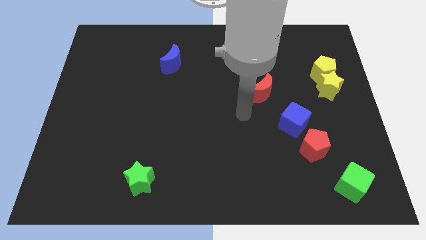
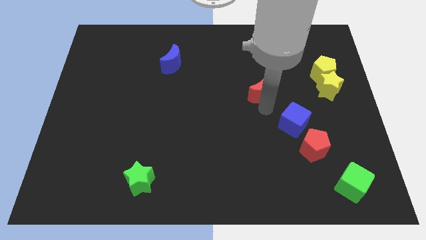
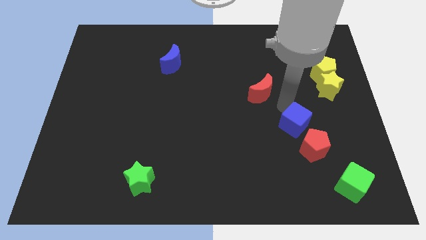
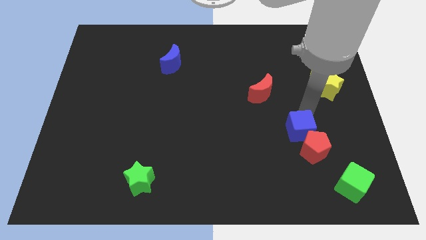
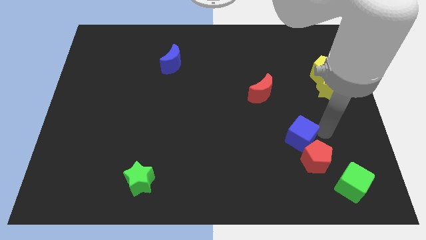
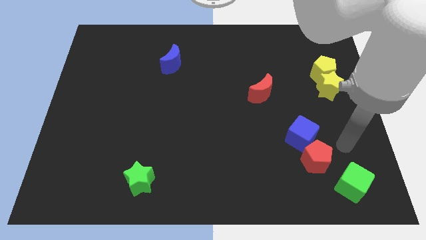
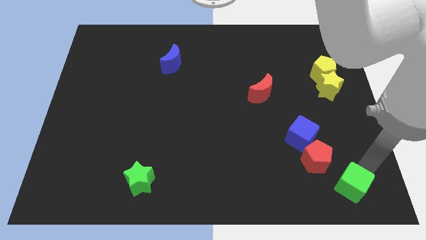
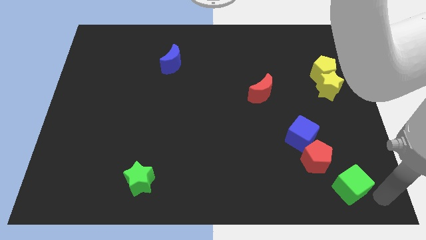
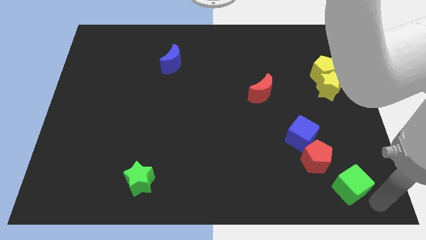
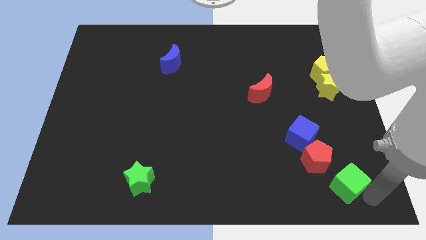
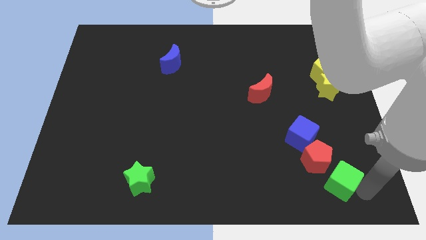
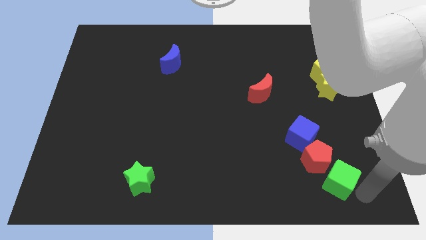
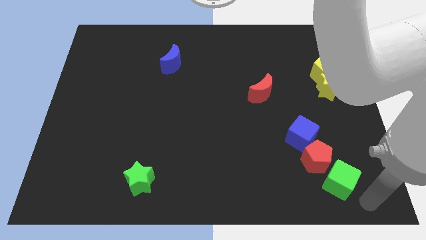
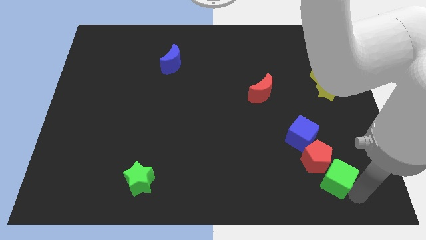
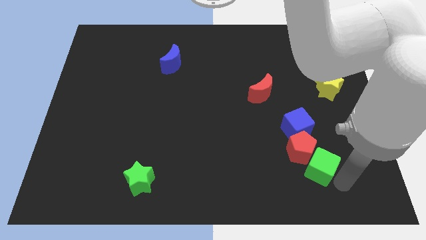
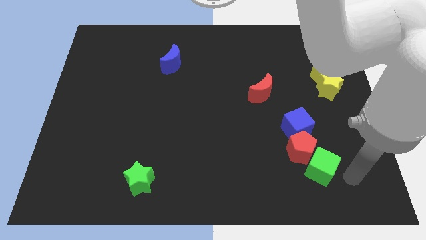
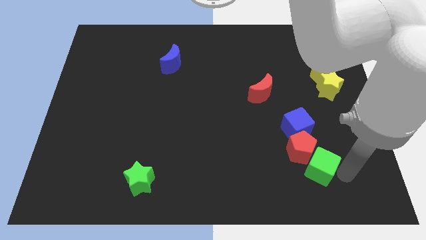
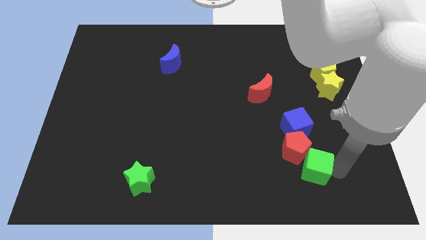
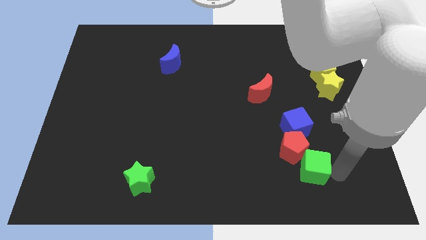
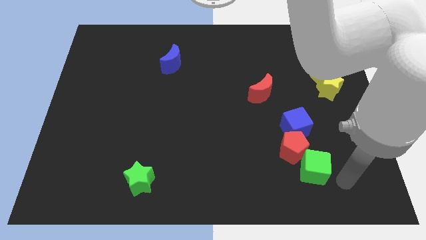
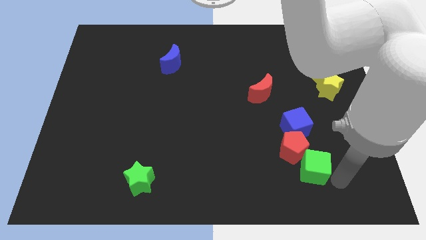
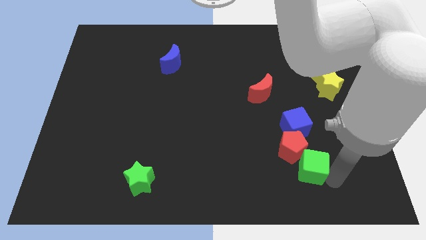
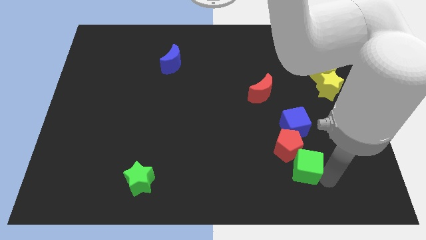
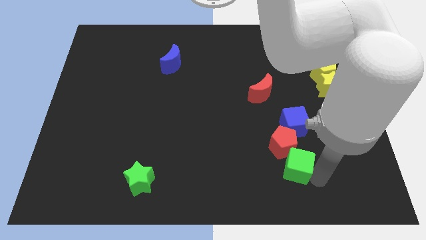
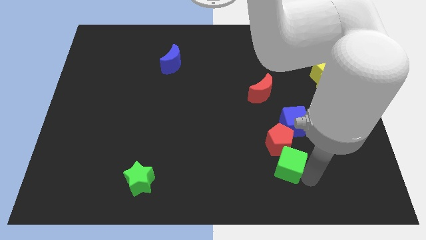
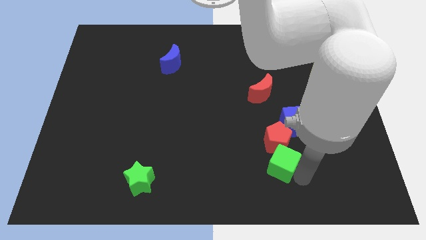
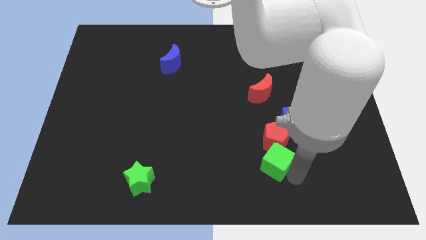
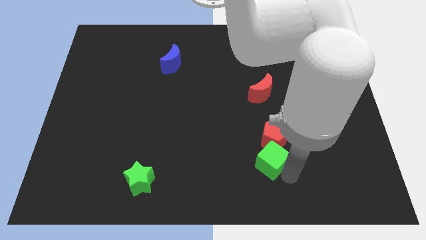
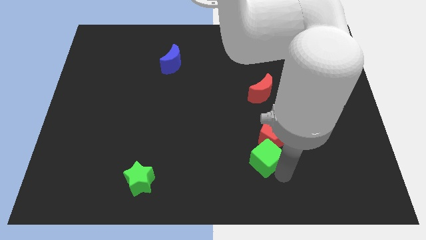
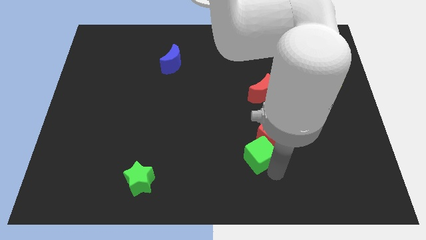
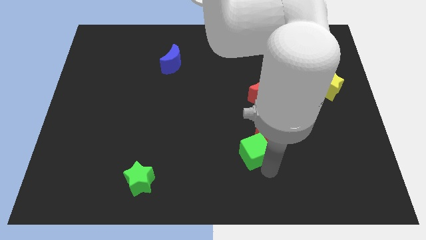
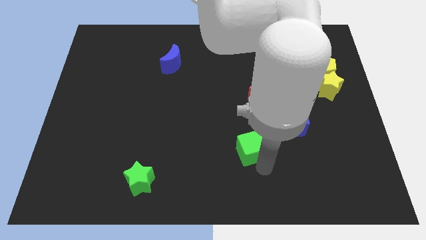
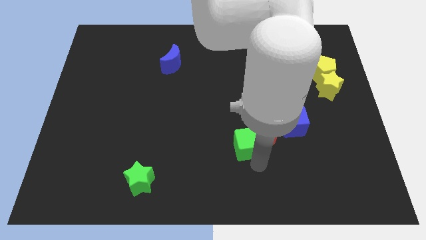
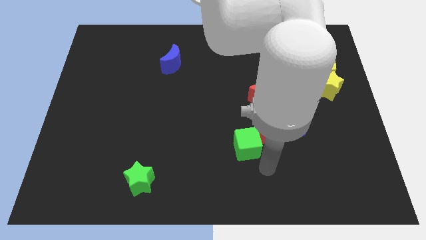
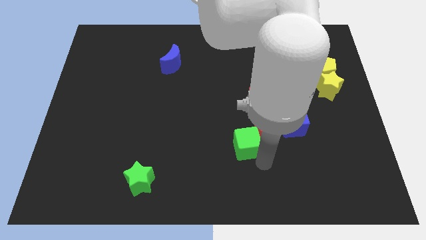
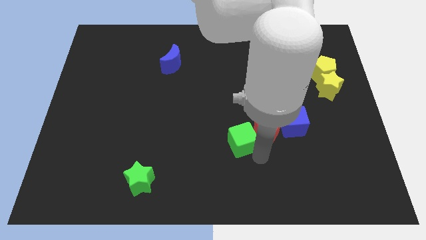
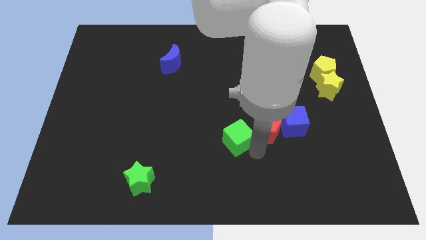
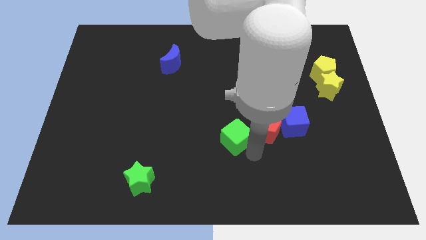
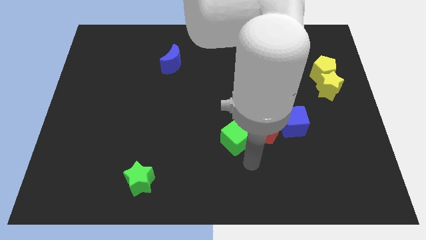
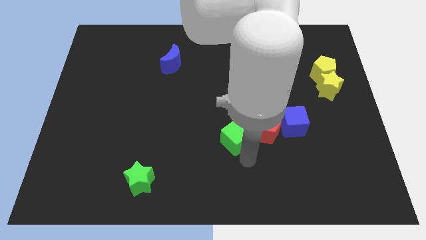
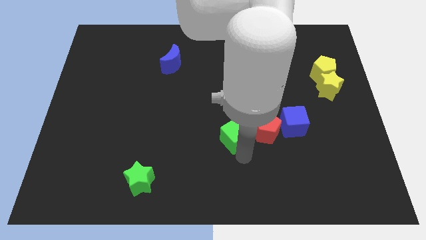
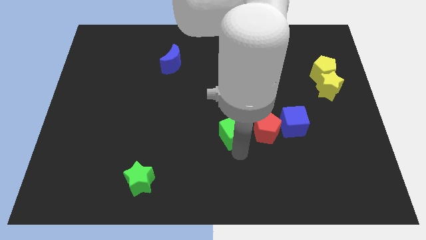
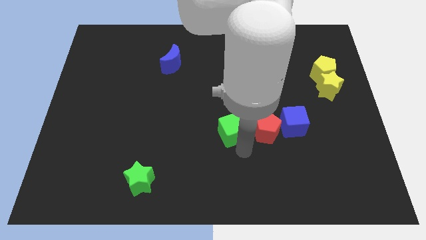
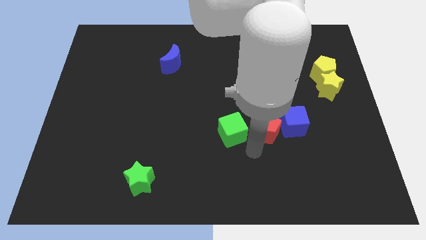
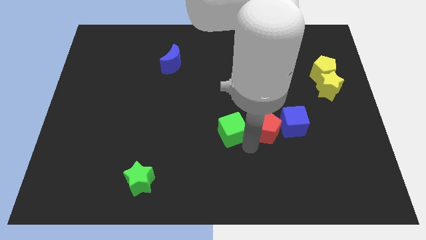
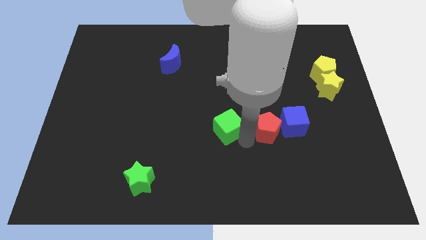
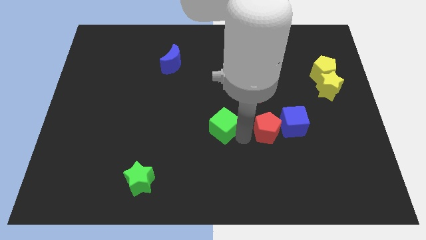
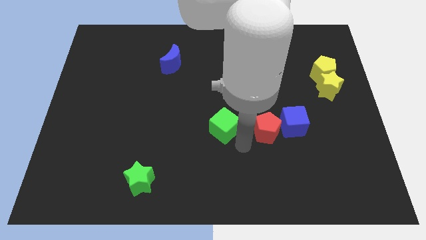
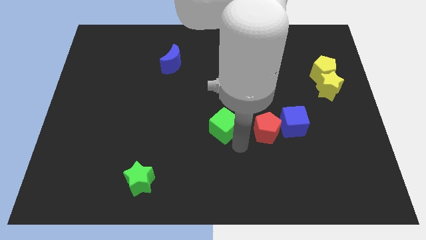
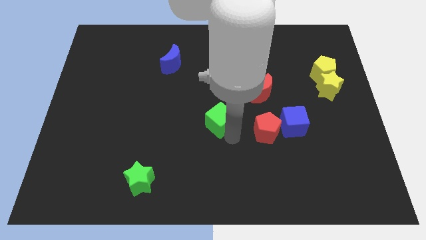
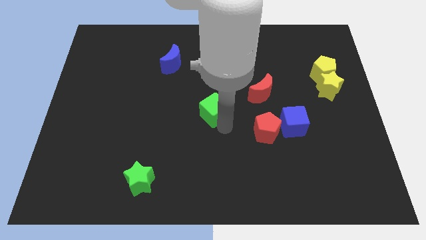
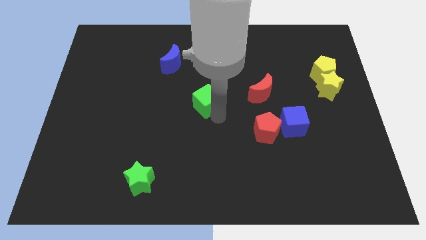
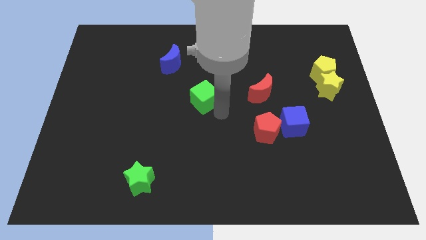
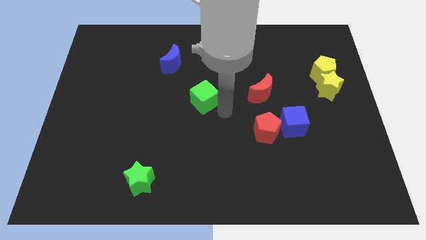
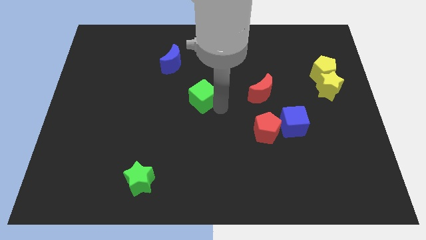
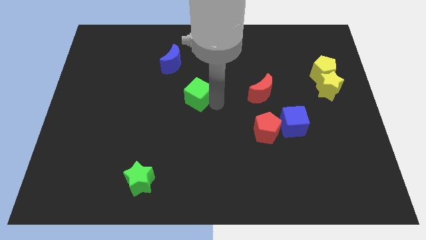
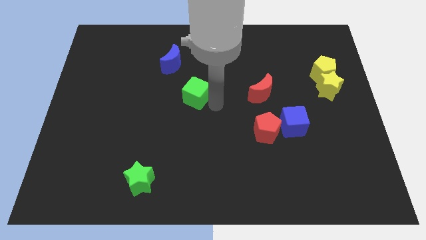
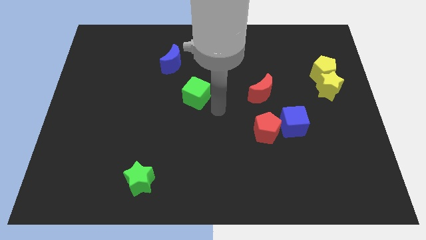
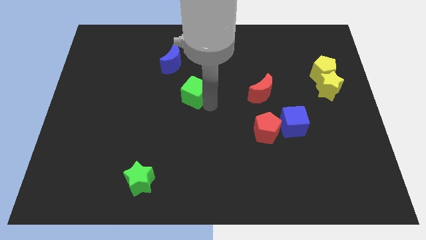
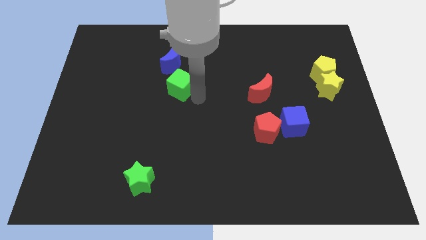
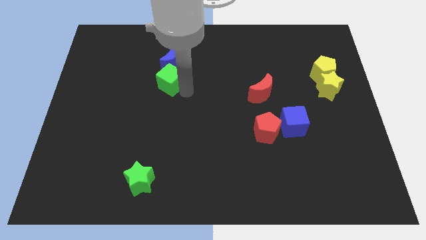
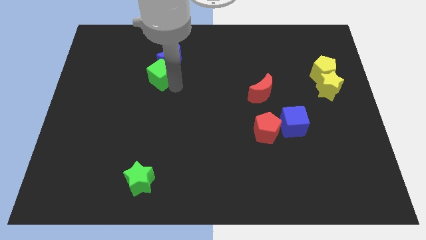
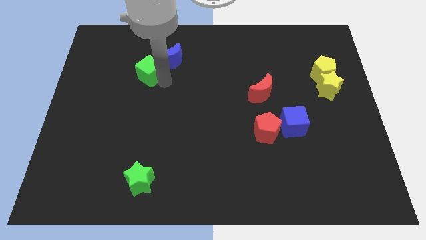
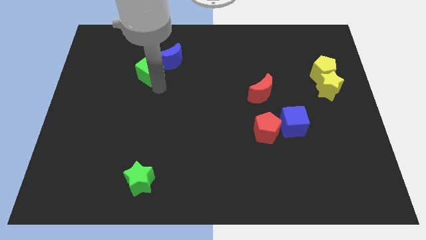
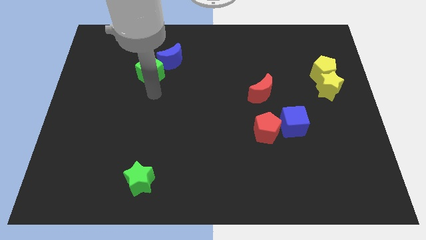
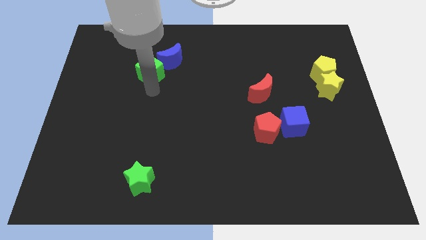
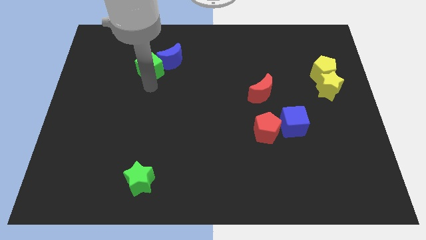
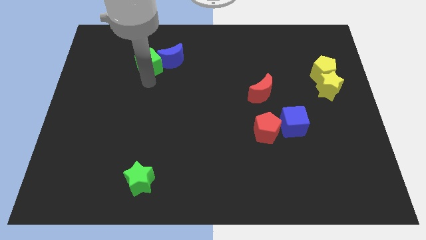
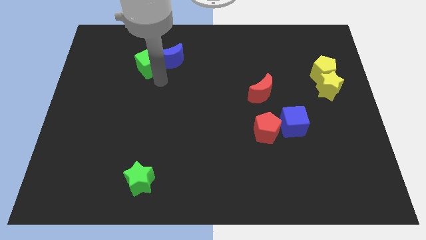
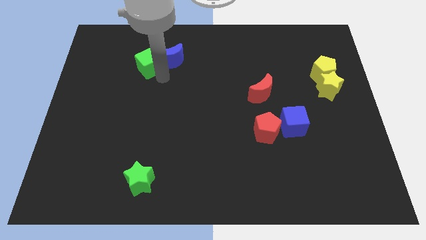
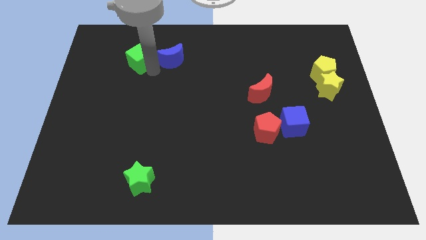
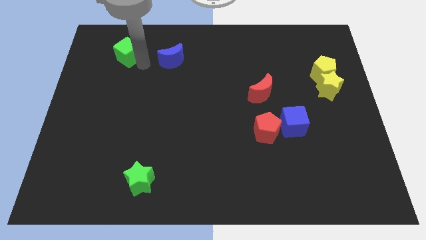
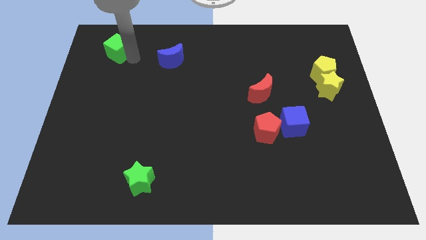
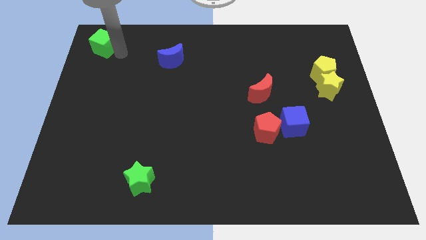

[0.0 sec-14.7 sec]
move the green cube to the upper left corner
